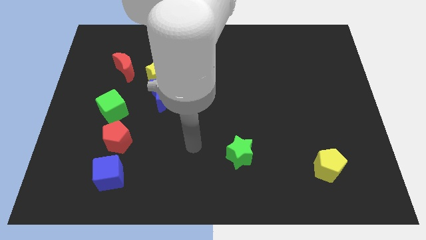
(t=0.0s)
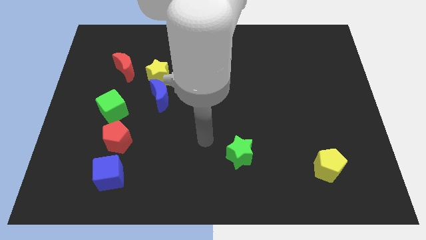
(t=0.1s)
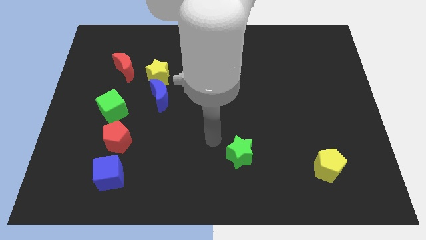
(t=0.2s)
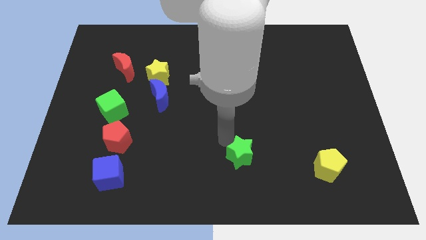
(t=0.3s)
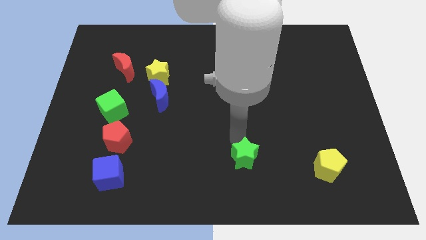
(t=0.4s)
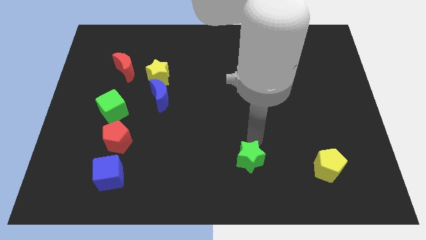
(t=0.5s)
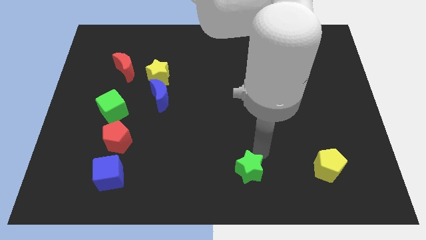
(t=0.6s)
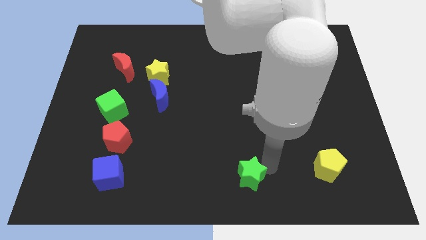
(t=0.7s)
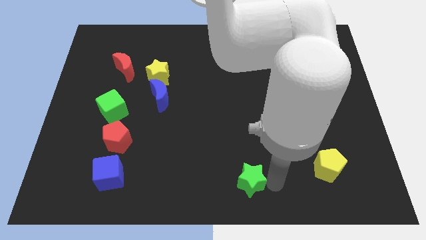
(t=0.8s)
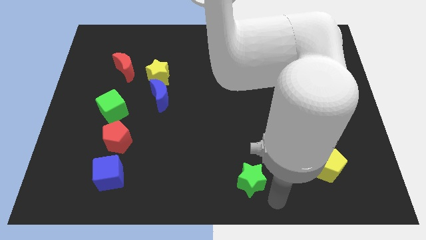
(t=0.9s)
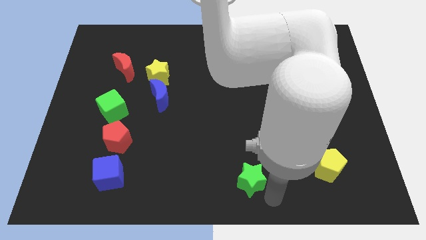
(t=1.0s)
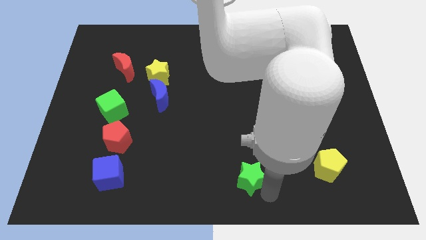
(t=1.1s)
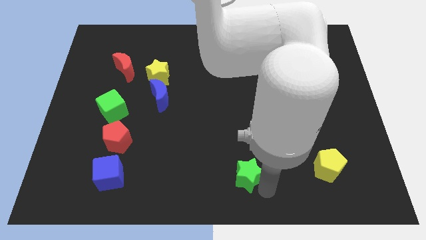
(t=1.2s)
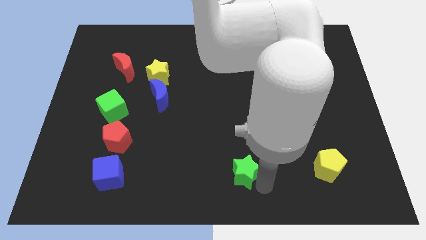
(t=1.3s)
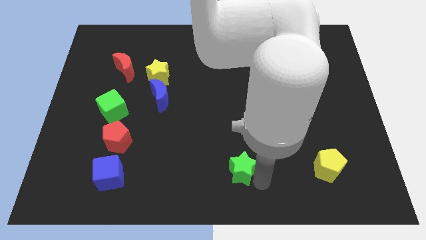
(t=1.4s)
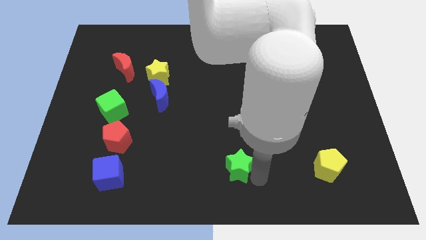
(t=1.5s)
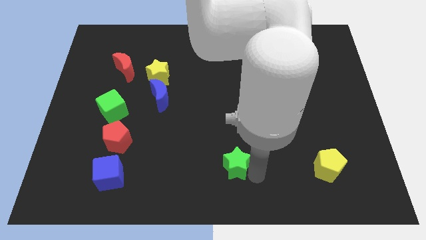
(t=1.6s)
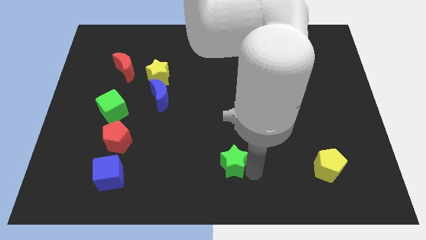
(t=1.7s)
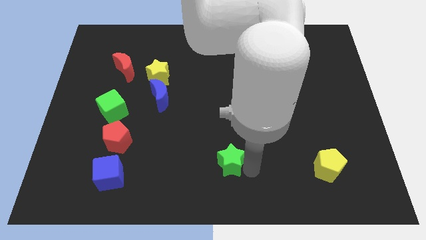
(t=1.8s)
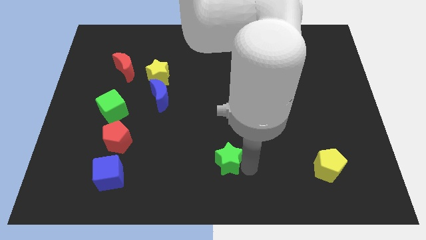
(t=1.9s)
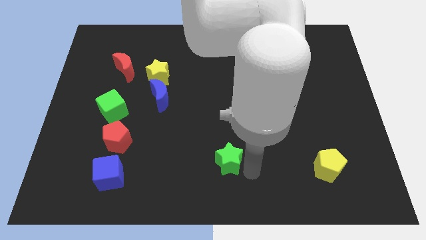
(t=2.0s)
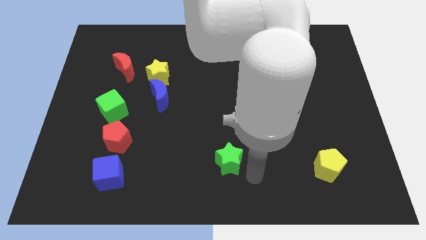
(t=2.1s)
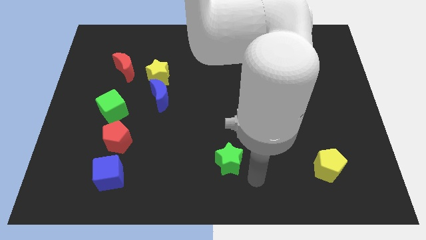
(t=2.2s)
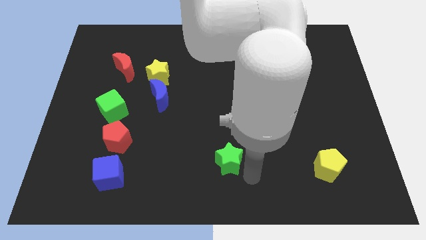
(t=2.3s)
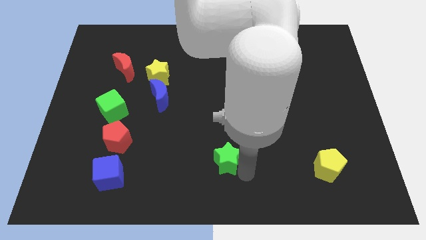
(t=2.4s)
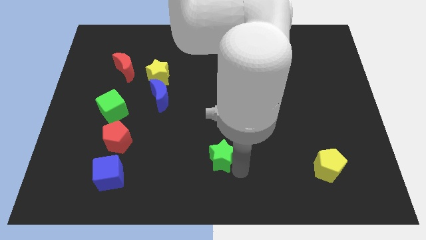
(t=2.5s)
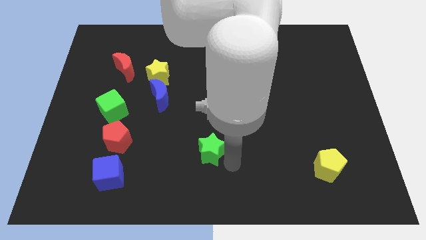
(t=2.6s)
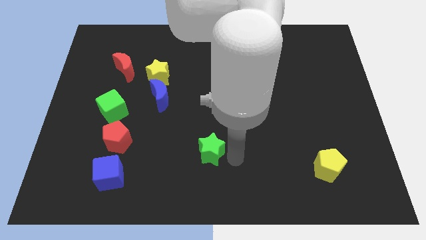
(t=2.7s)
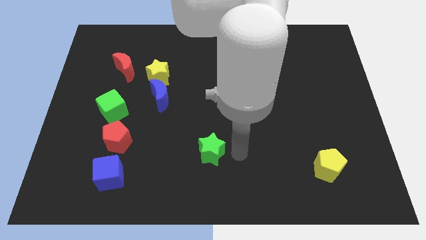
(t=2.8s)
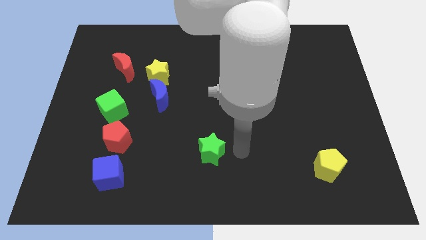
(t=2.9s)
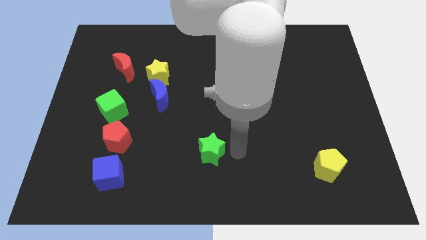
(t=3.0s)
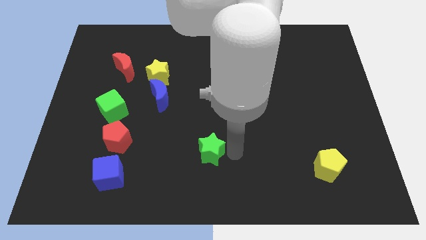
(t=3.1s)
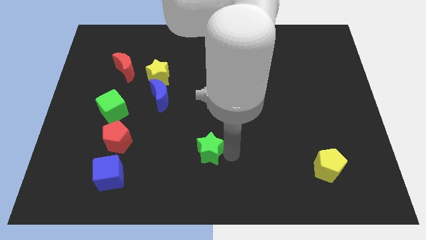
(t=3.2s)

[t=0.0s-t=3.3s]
slide the green star left somewhat

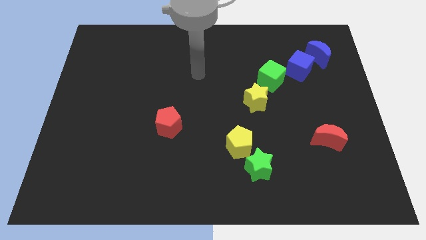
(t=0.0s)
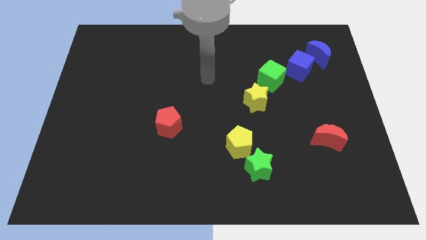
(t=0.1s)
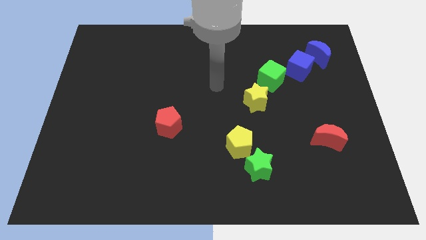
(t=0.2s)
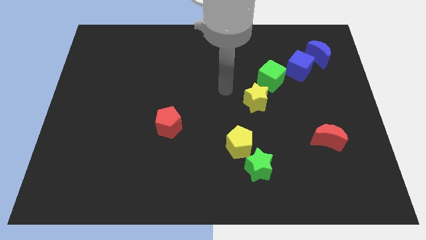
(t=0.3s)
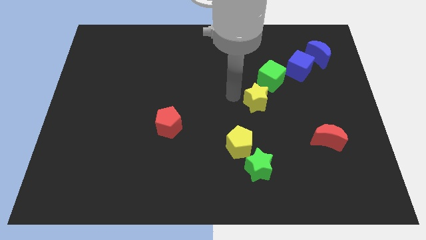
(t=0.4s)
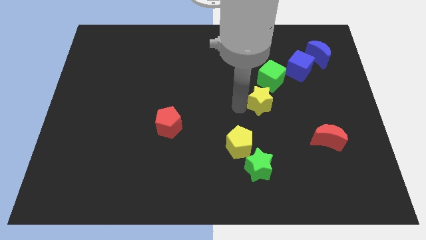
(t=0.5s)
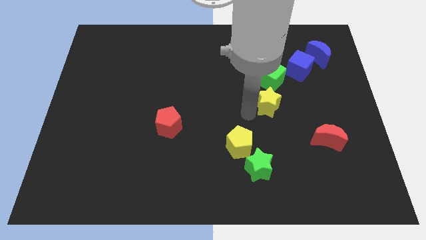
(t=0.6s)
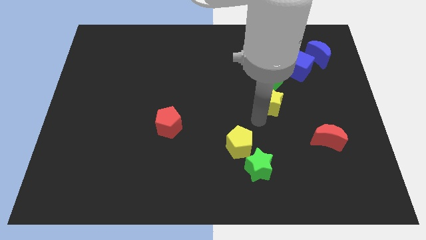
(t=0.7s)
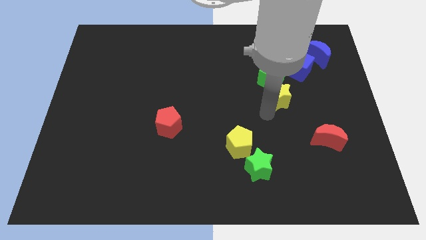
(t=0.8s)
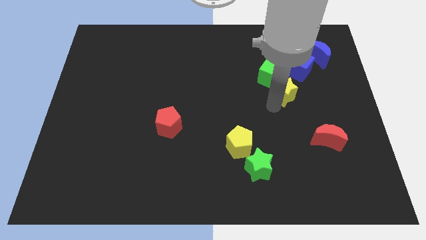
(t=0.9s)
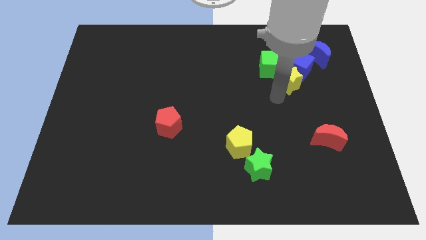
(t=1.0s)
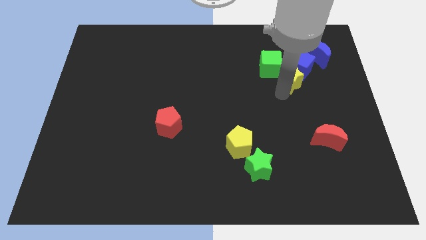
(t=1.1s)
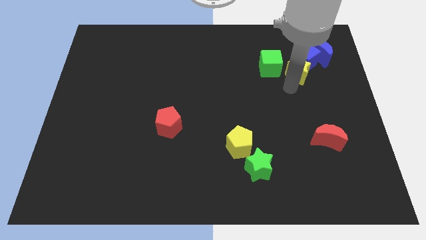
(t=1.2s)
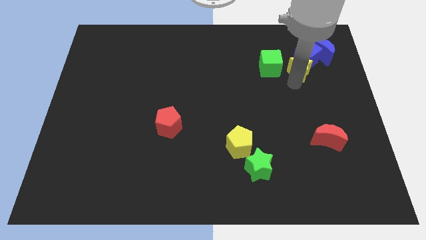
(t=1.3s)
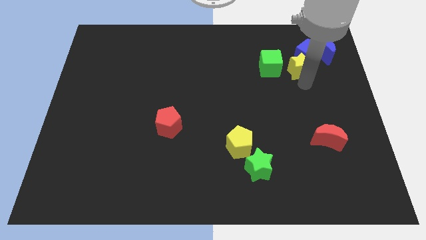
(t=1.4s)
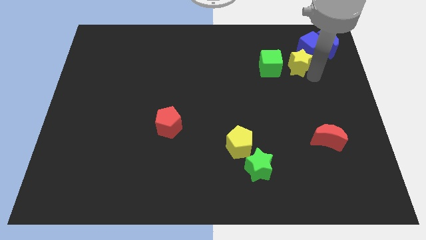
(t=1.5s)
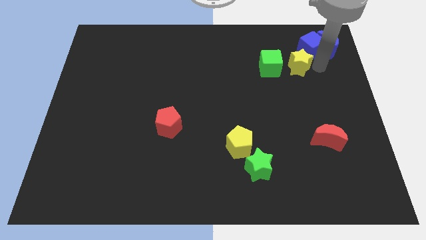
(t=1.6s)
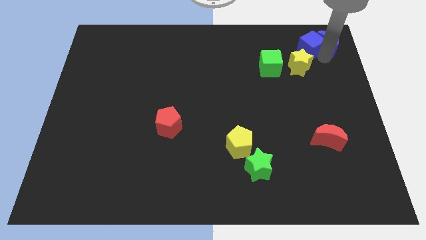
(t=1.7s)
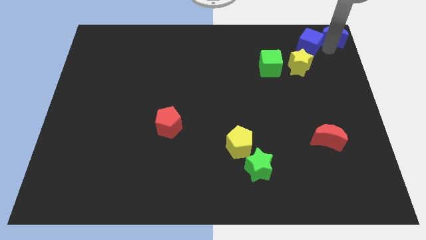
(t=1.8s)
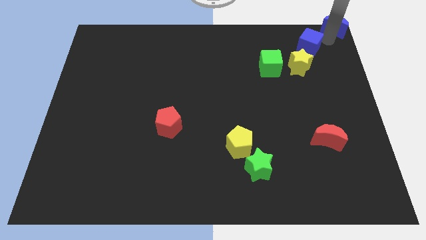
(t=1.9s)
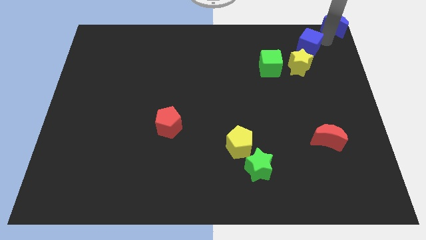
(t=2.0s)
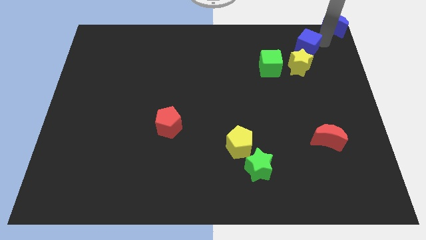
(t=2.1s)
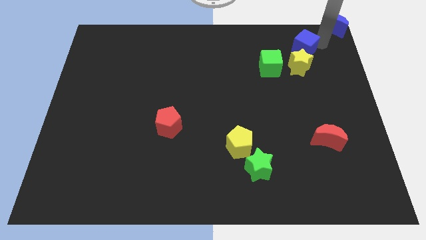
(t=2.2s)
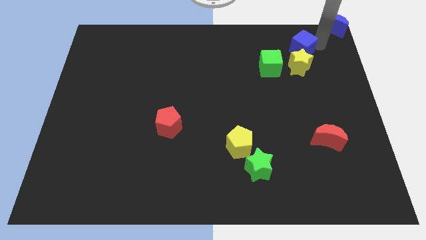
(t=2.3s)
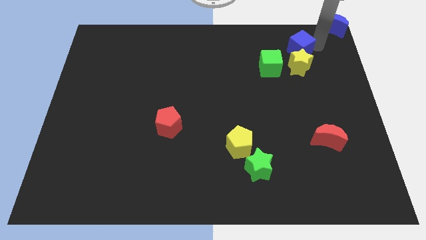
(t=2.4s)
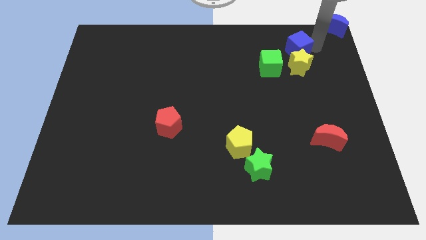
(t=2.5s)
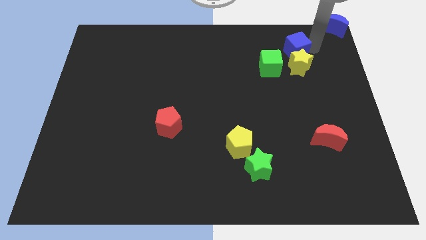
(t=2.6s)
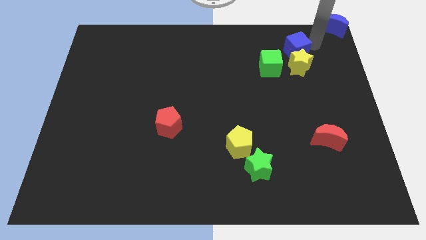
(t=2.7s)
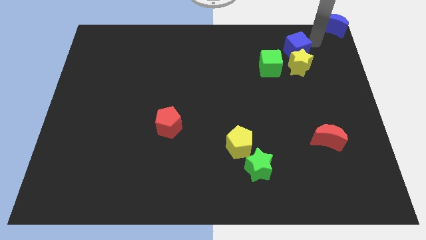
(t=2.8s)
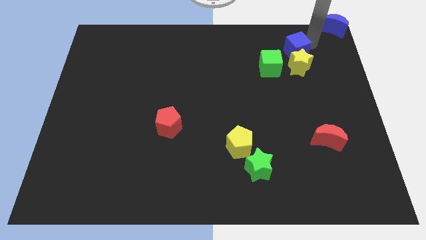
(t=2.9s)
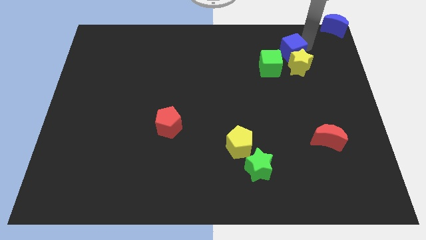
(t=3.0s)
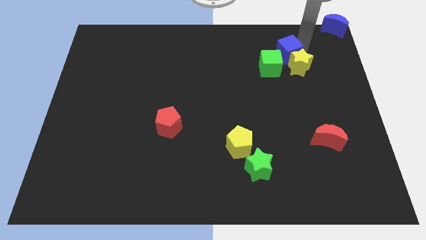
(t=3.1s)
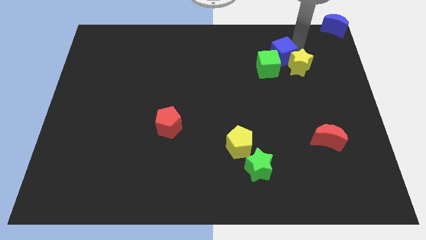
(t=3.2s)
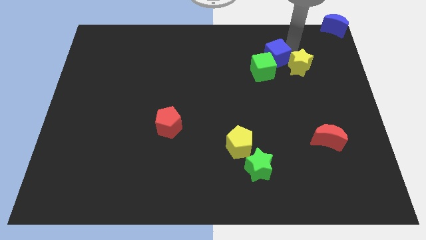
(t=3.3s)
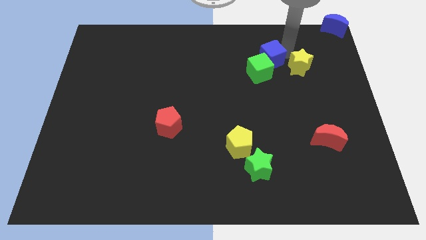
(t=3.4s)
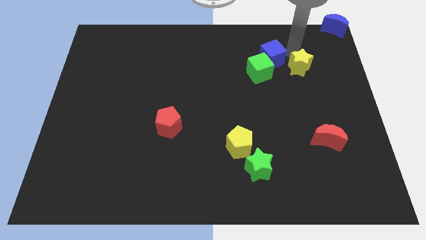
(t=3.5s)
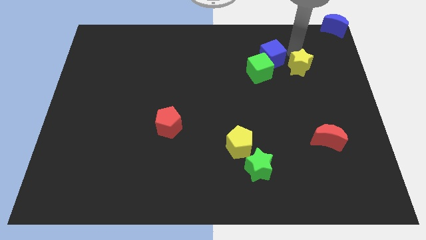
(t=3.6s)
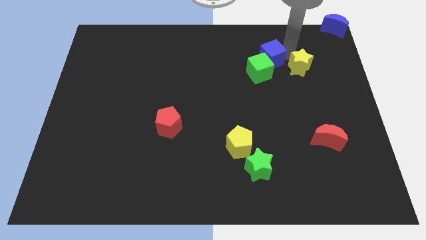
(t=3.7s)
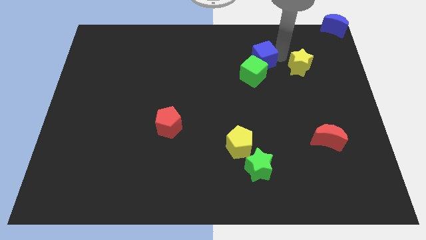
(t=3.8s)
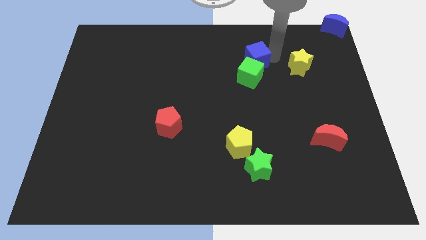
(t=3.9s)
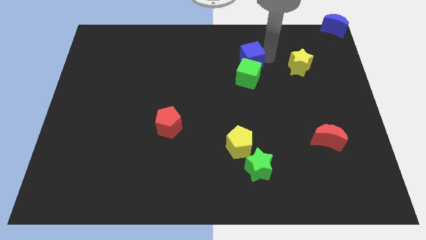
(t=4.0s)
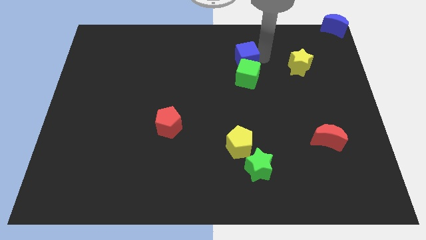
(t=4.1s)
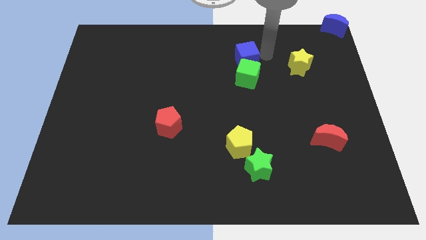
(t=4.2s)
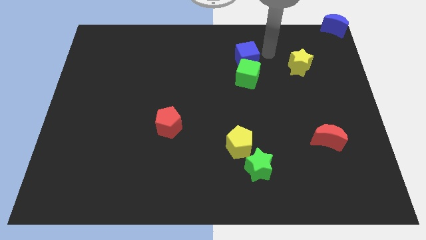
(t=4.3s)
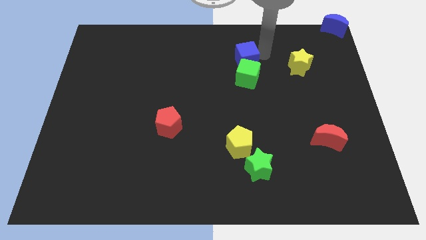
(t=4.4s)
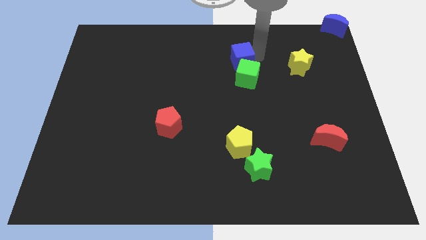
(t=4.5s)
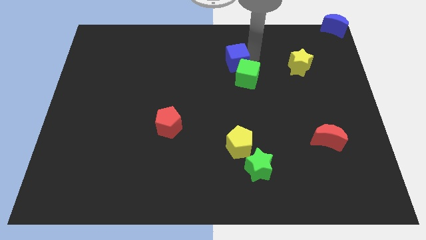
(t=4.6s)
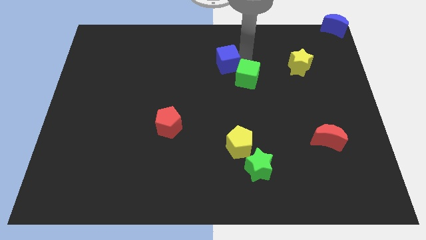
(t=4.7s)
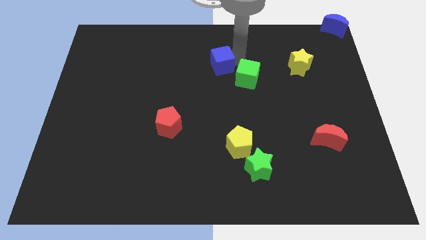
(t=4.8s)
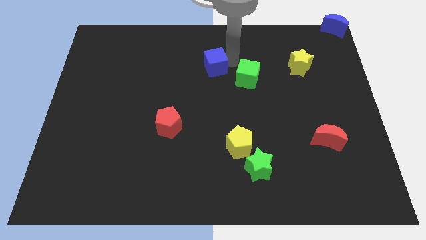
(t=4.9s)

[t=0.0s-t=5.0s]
push the blue cube left
